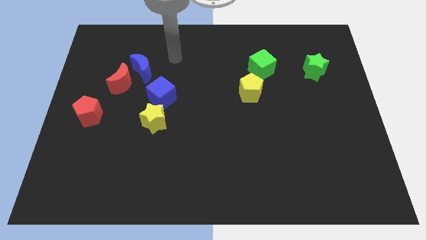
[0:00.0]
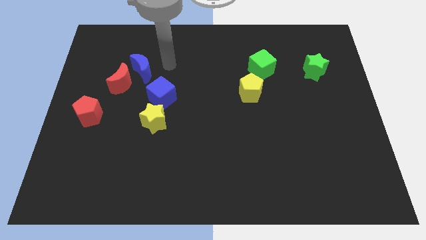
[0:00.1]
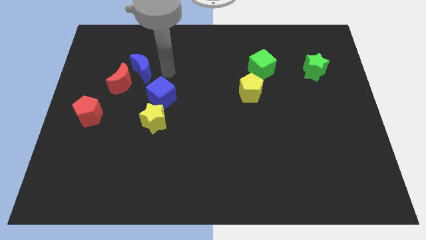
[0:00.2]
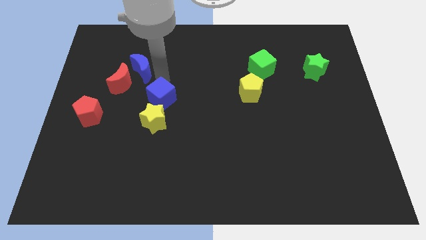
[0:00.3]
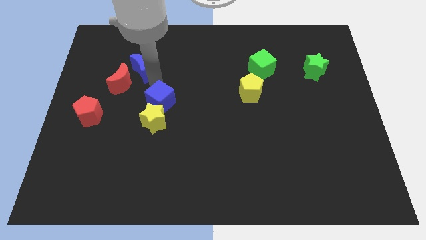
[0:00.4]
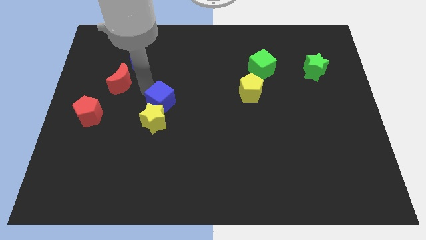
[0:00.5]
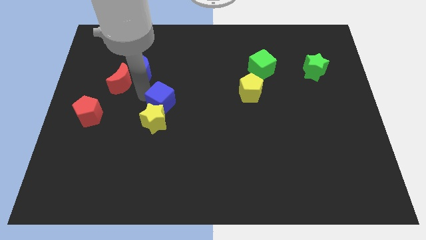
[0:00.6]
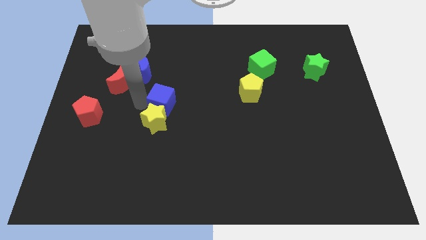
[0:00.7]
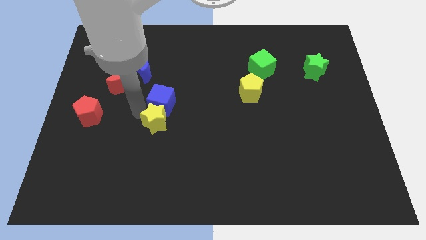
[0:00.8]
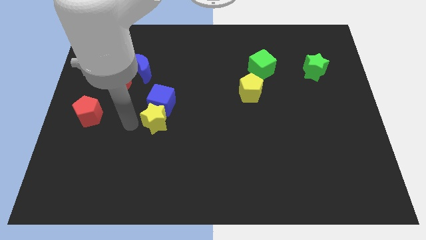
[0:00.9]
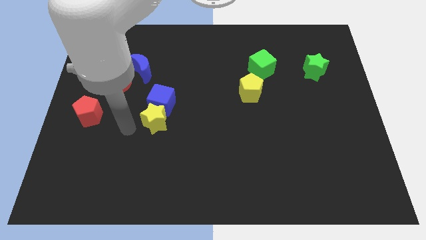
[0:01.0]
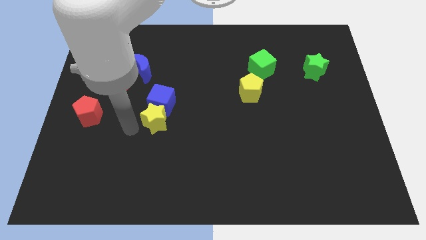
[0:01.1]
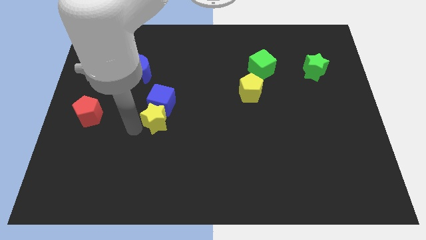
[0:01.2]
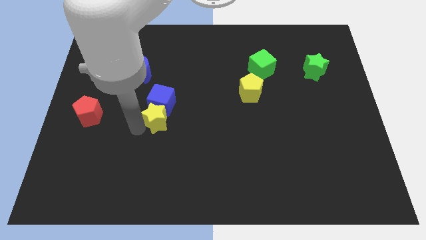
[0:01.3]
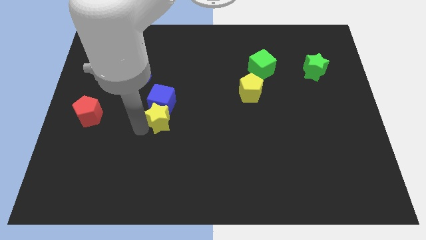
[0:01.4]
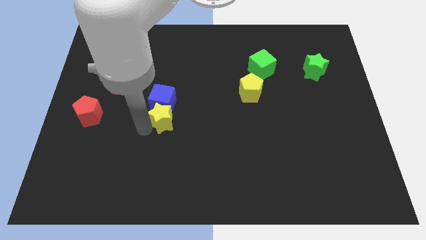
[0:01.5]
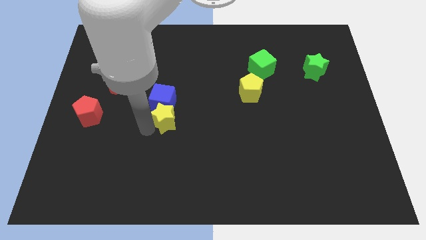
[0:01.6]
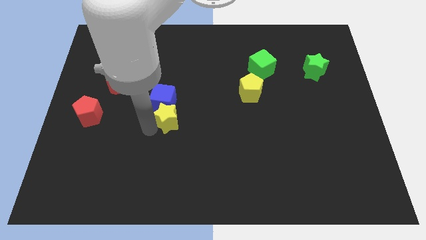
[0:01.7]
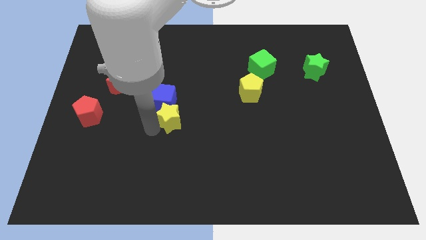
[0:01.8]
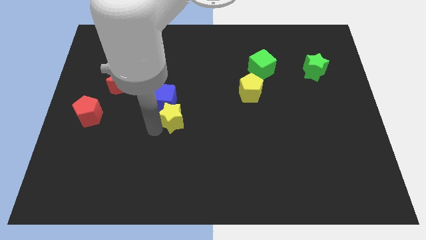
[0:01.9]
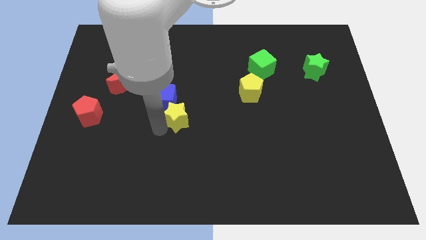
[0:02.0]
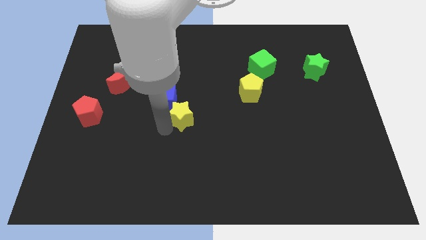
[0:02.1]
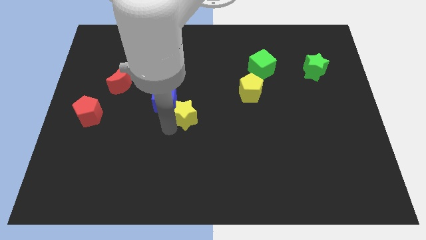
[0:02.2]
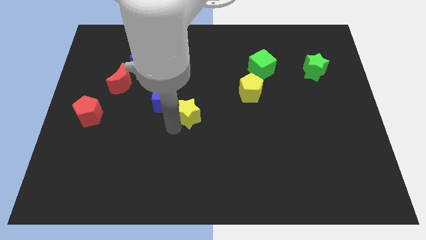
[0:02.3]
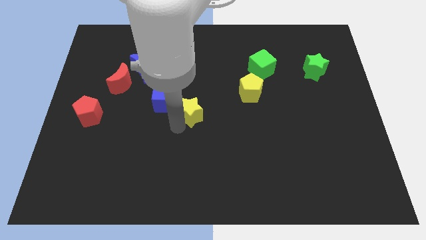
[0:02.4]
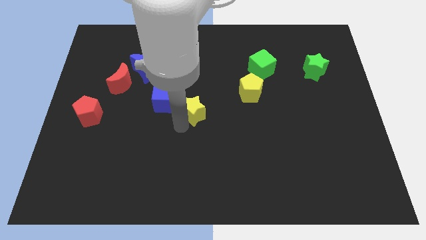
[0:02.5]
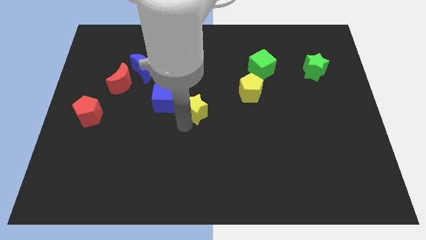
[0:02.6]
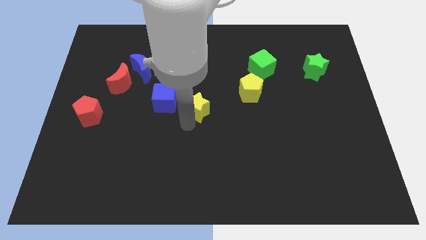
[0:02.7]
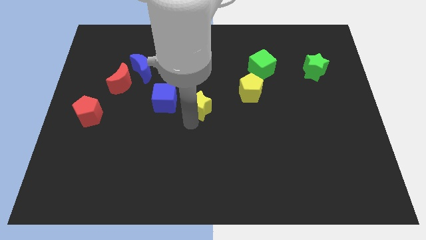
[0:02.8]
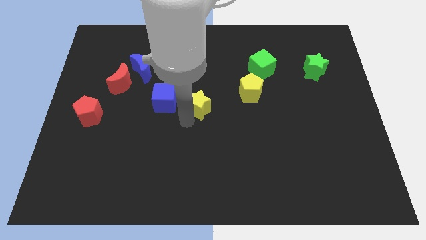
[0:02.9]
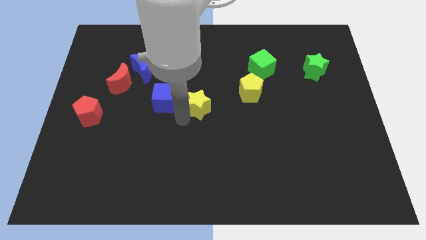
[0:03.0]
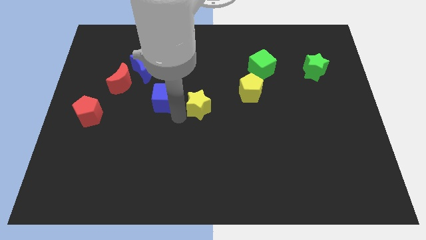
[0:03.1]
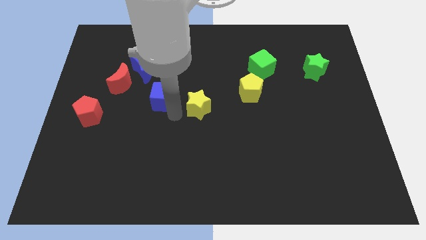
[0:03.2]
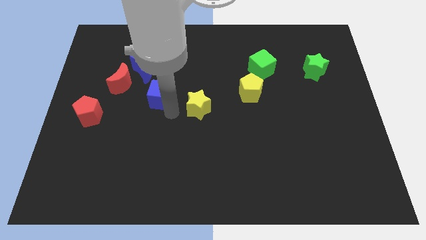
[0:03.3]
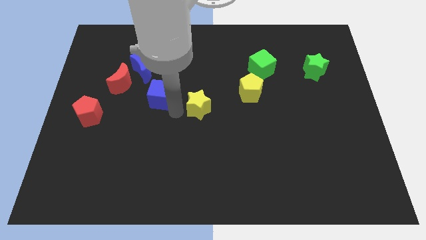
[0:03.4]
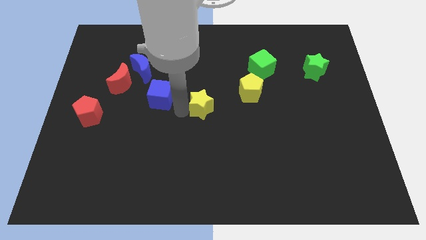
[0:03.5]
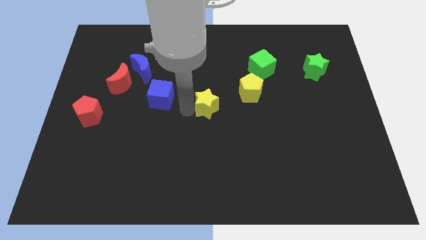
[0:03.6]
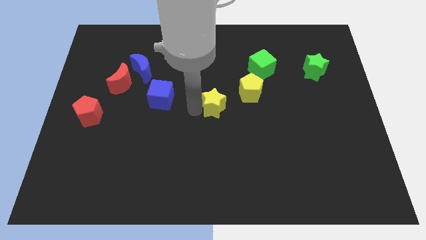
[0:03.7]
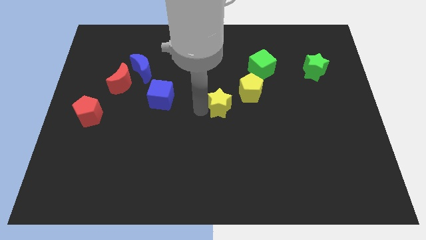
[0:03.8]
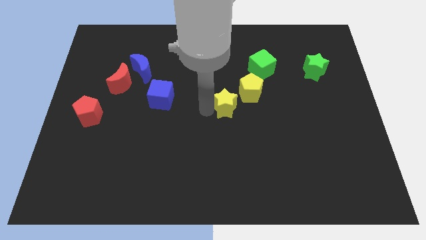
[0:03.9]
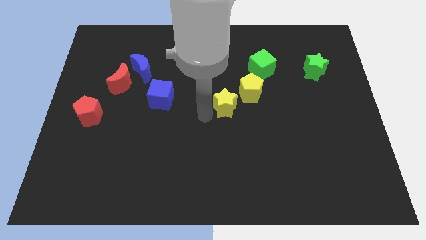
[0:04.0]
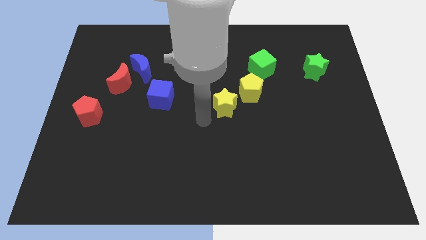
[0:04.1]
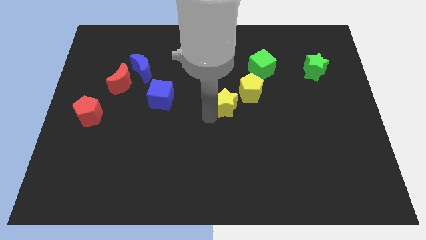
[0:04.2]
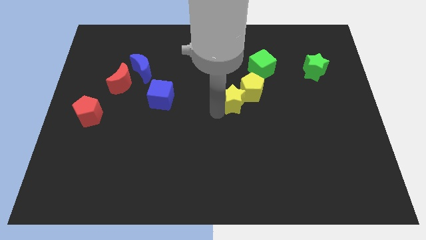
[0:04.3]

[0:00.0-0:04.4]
slide the yellow star close to the yellow pentagon

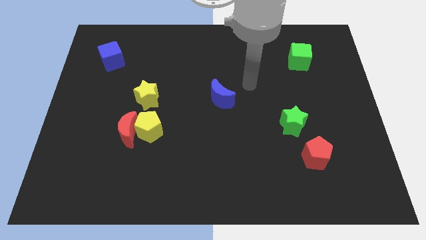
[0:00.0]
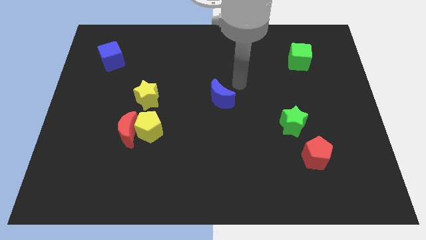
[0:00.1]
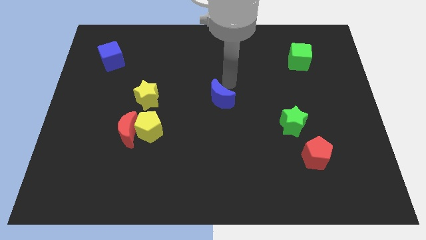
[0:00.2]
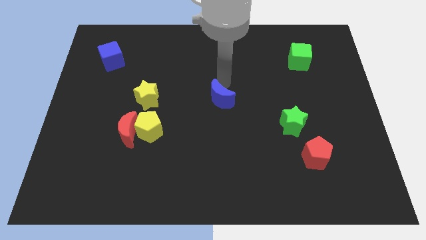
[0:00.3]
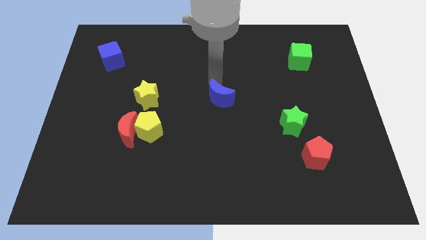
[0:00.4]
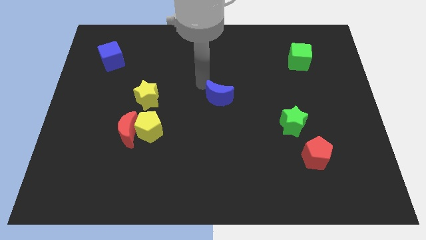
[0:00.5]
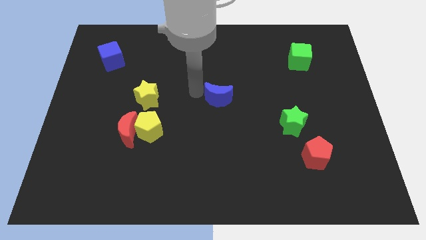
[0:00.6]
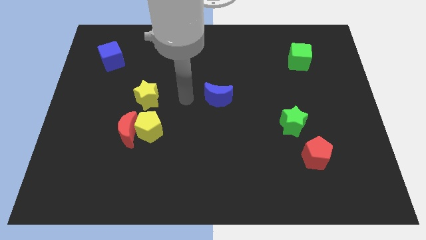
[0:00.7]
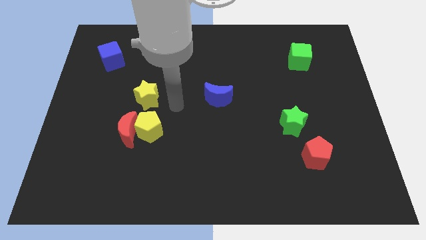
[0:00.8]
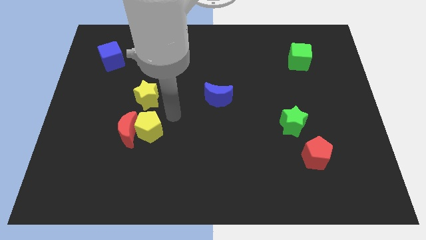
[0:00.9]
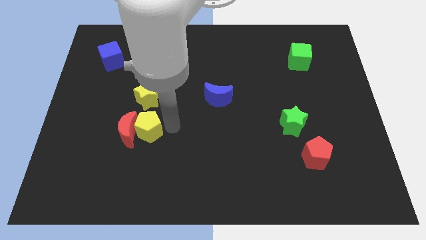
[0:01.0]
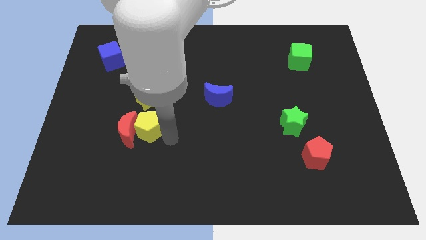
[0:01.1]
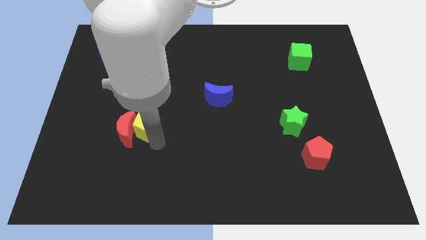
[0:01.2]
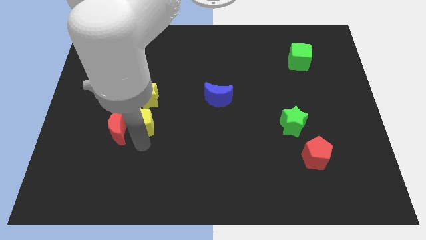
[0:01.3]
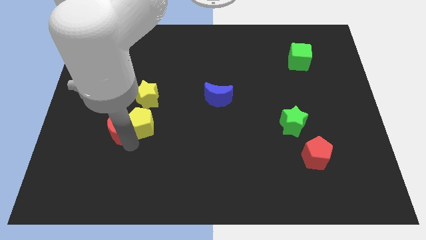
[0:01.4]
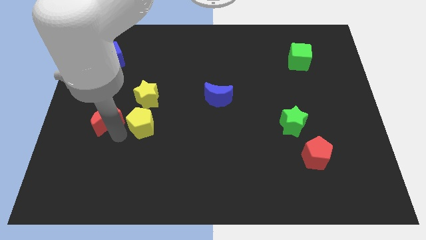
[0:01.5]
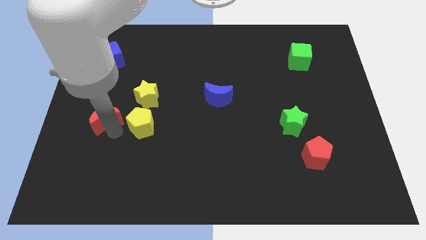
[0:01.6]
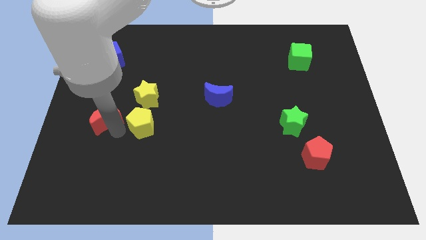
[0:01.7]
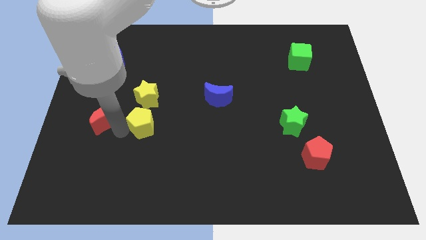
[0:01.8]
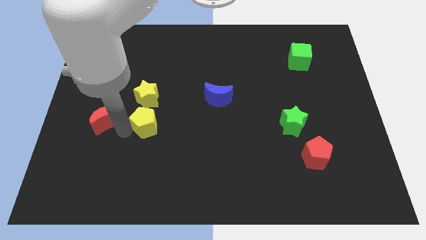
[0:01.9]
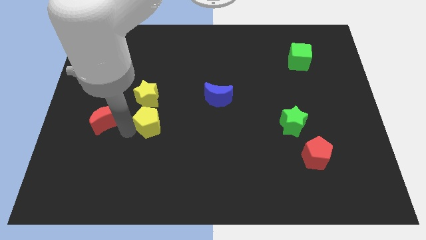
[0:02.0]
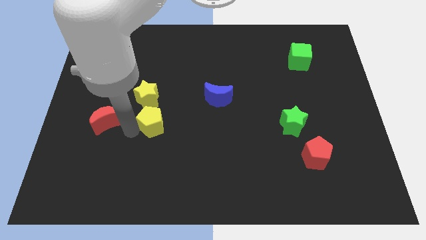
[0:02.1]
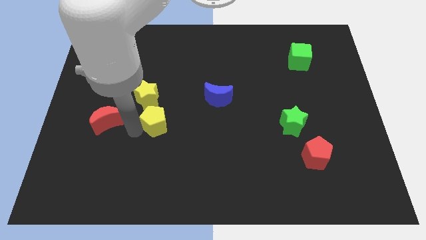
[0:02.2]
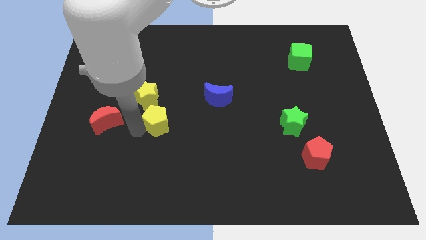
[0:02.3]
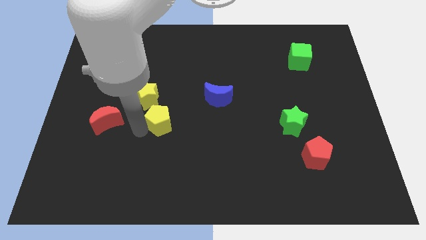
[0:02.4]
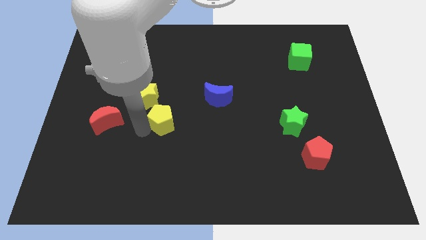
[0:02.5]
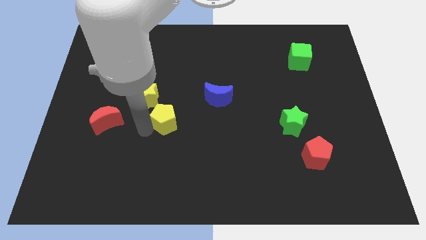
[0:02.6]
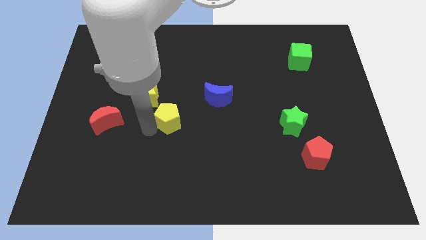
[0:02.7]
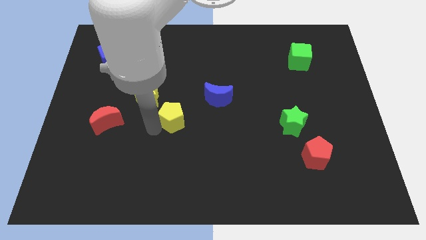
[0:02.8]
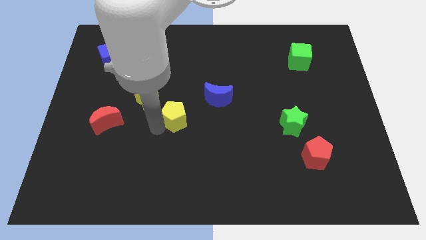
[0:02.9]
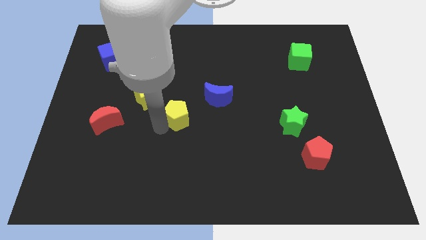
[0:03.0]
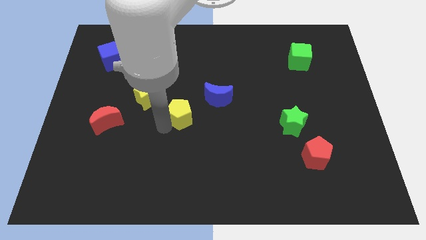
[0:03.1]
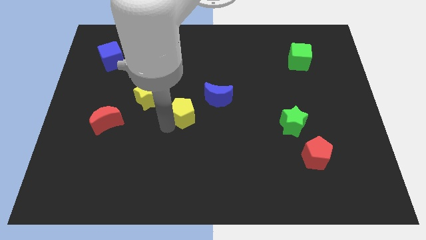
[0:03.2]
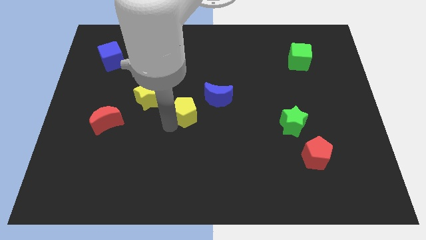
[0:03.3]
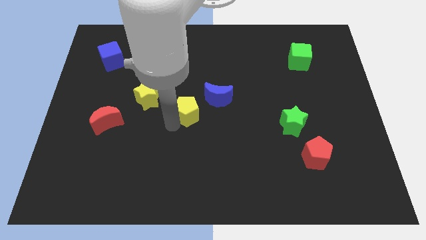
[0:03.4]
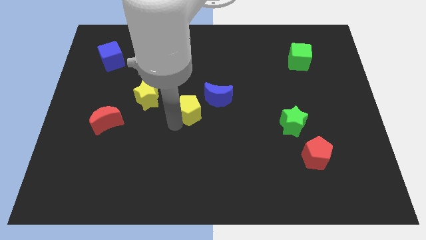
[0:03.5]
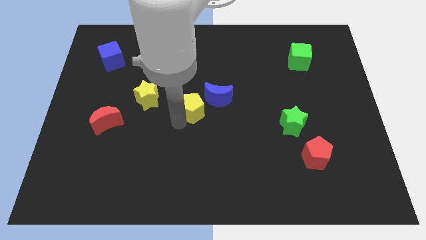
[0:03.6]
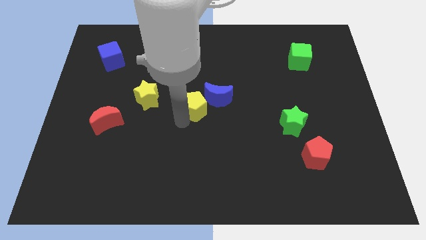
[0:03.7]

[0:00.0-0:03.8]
put the yellow pentagon next to the blue moon
